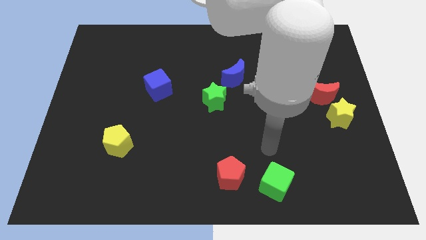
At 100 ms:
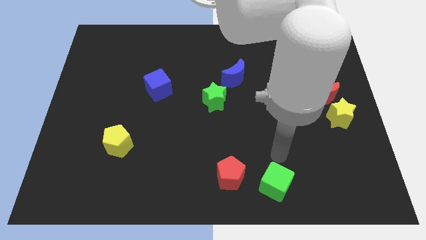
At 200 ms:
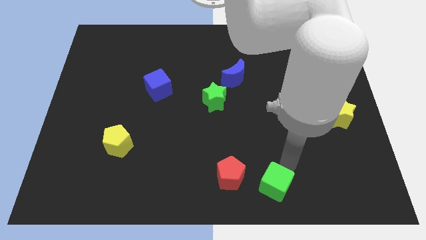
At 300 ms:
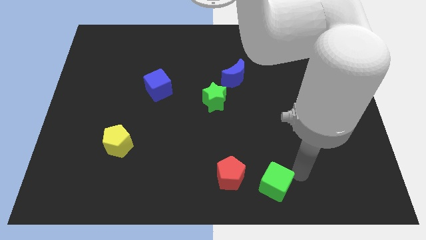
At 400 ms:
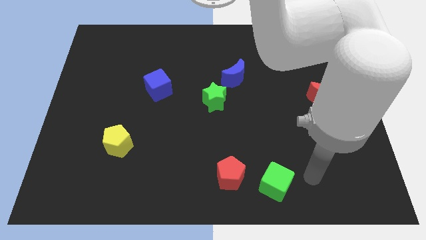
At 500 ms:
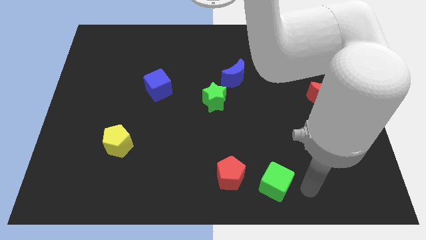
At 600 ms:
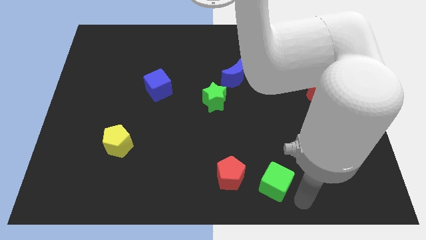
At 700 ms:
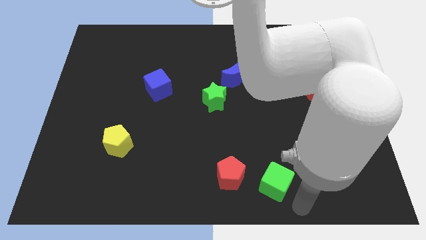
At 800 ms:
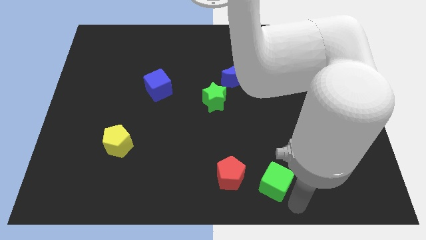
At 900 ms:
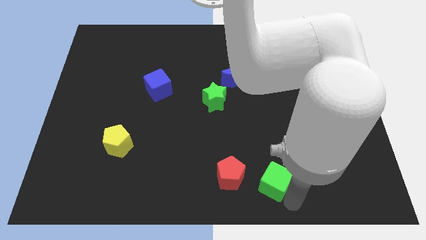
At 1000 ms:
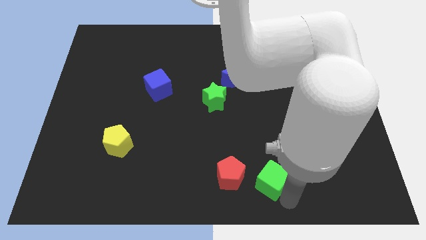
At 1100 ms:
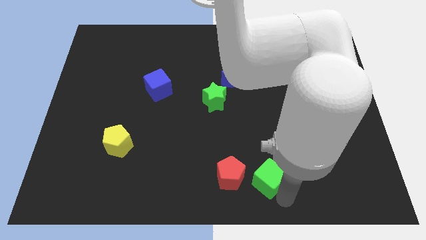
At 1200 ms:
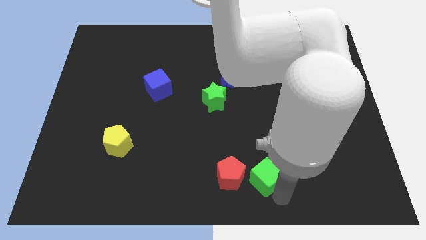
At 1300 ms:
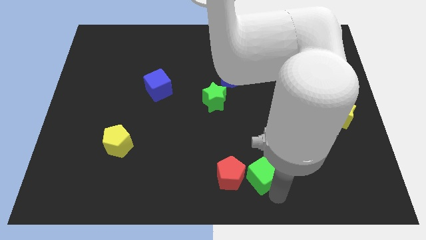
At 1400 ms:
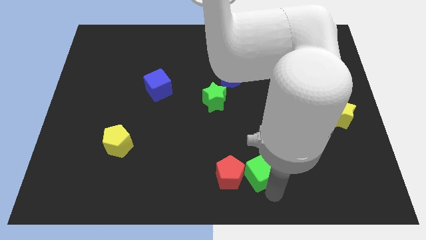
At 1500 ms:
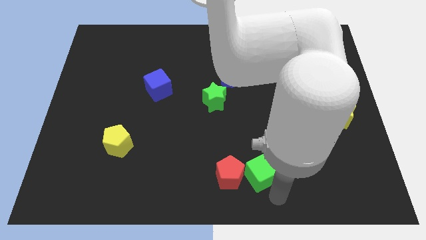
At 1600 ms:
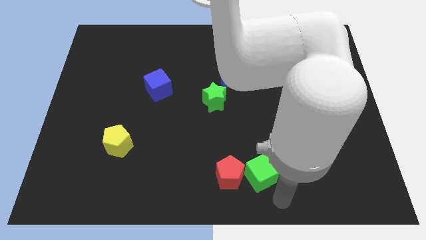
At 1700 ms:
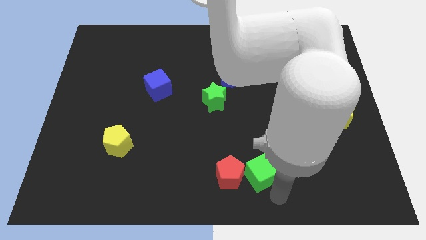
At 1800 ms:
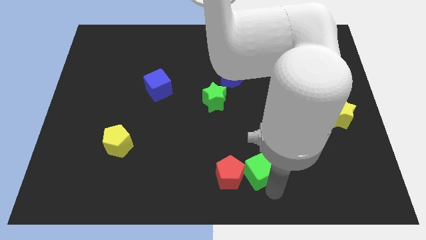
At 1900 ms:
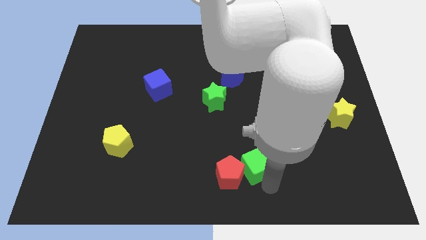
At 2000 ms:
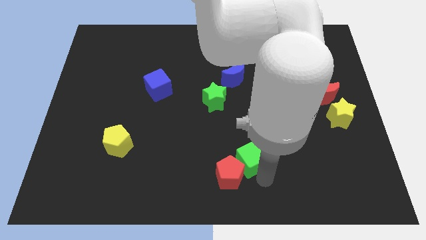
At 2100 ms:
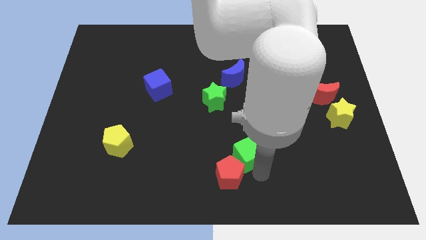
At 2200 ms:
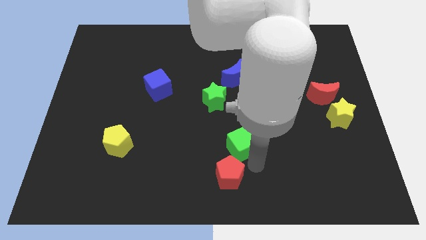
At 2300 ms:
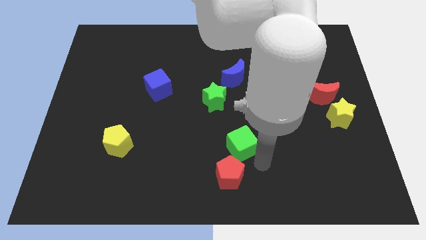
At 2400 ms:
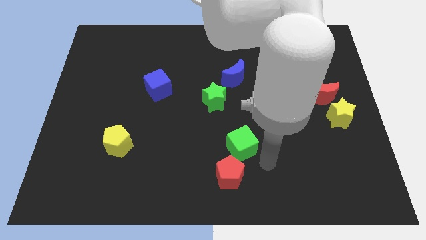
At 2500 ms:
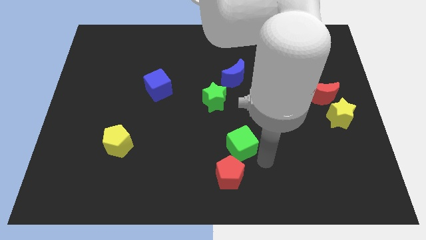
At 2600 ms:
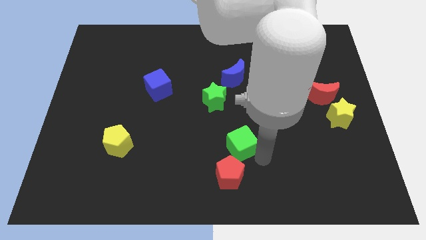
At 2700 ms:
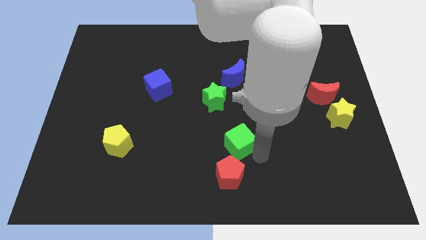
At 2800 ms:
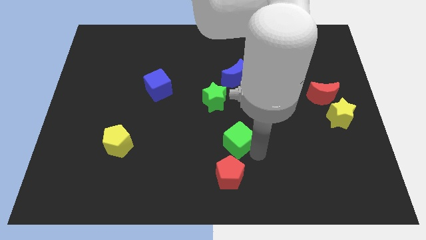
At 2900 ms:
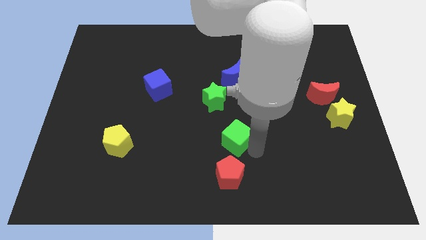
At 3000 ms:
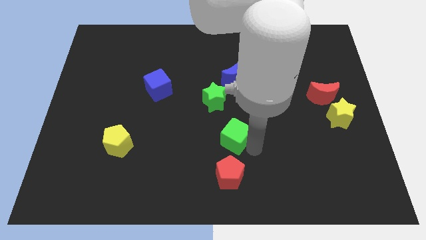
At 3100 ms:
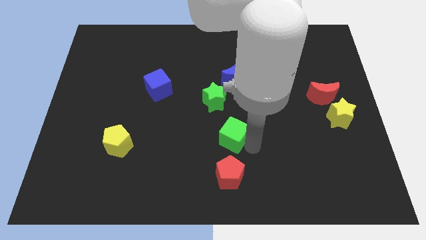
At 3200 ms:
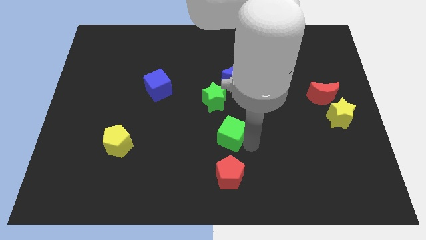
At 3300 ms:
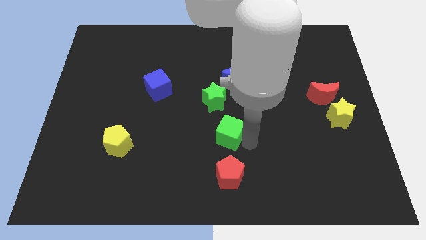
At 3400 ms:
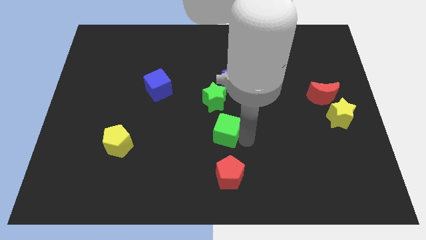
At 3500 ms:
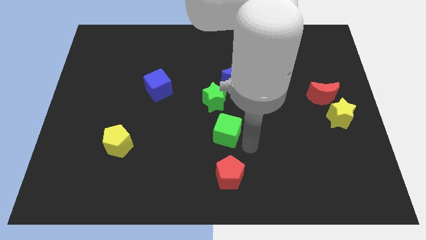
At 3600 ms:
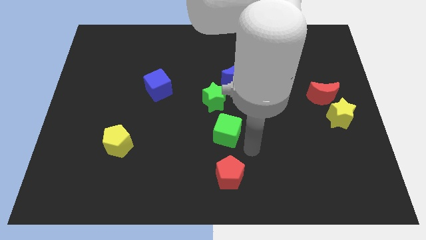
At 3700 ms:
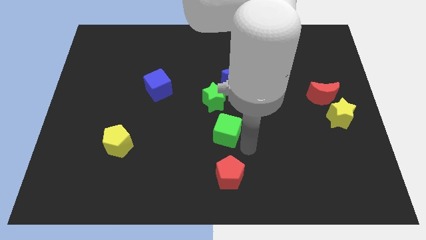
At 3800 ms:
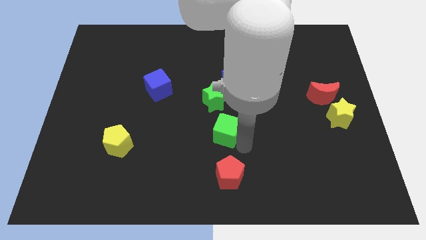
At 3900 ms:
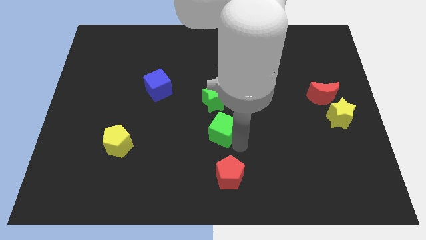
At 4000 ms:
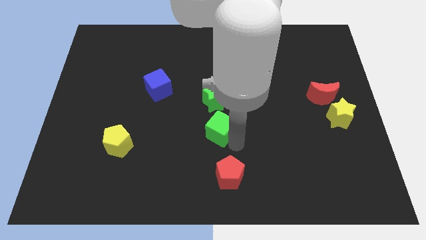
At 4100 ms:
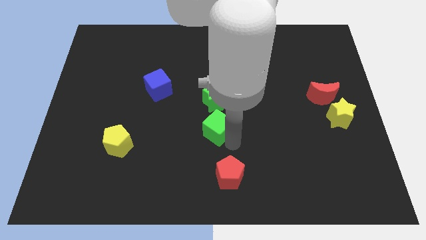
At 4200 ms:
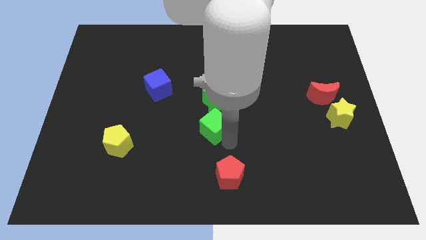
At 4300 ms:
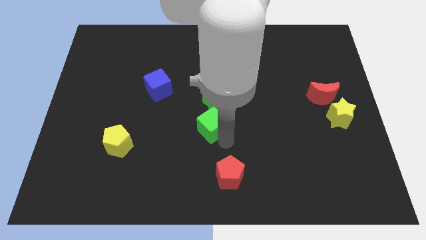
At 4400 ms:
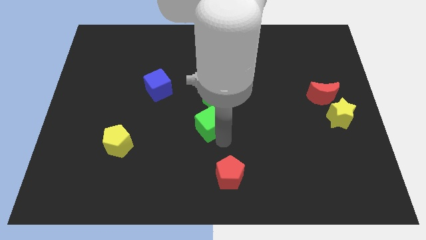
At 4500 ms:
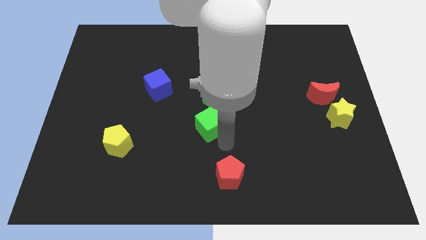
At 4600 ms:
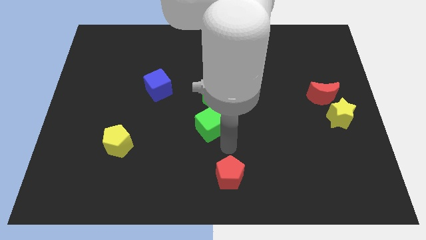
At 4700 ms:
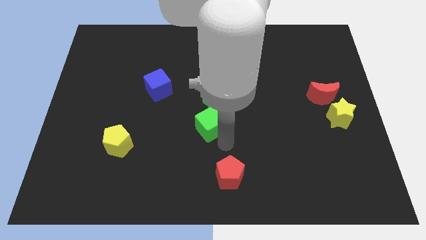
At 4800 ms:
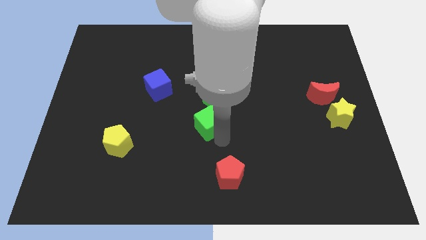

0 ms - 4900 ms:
slide the green cube up and then left

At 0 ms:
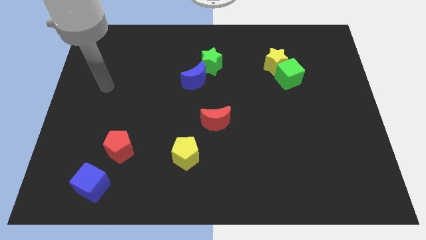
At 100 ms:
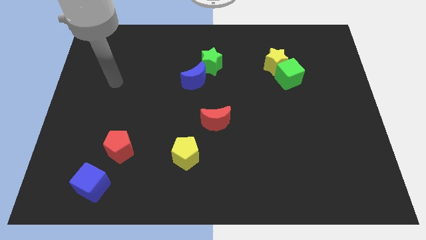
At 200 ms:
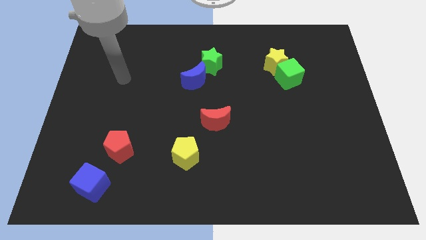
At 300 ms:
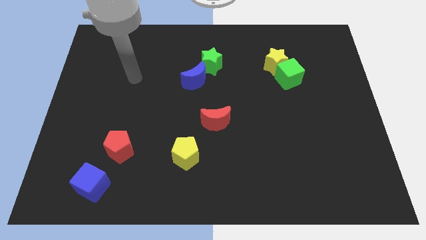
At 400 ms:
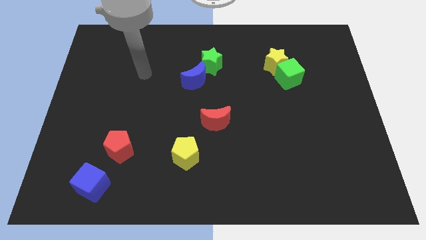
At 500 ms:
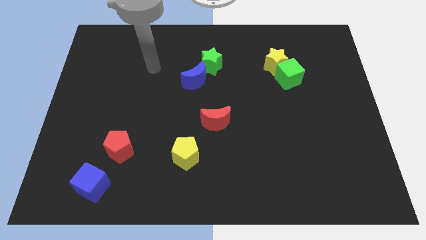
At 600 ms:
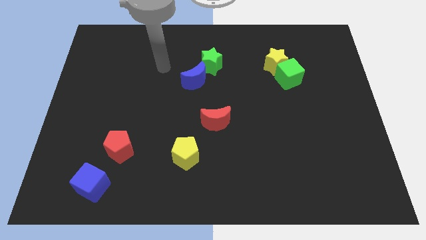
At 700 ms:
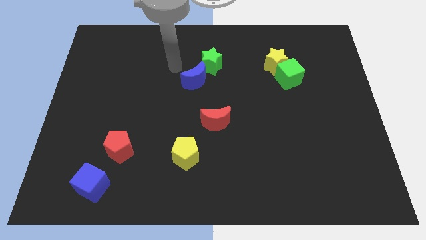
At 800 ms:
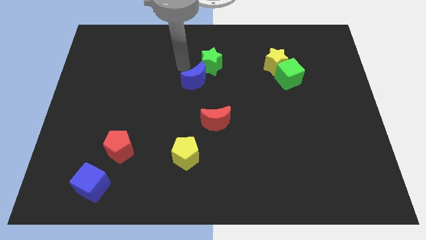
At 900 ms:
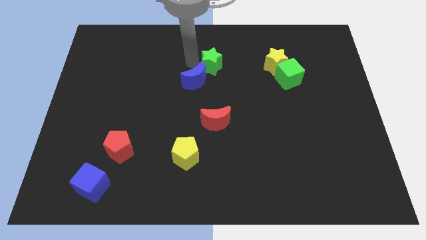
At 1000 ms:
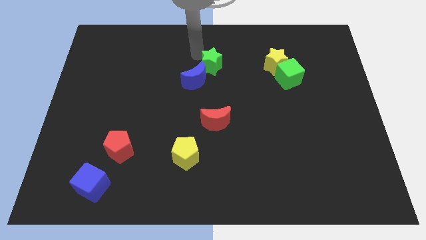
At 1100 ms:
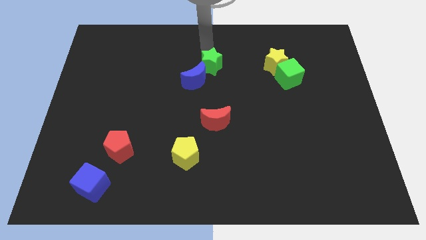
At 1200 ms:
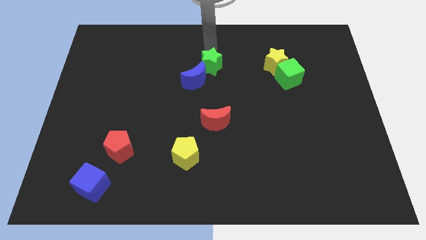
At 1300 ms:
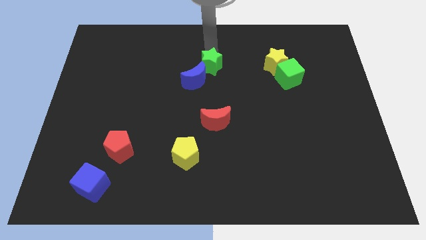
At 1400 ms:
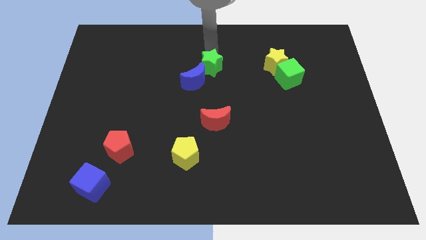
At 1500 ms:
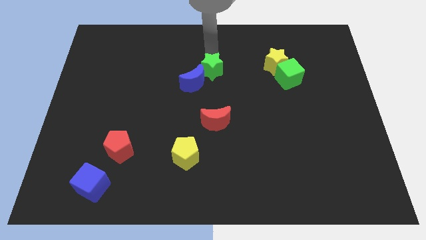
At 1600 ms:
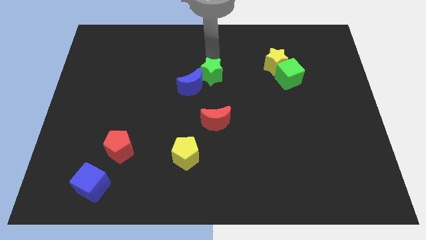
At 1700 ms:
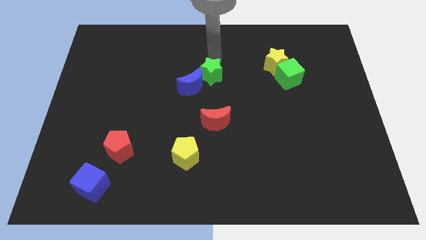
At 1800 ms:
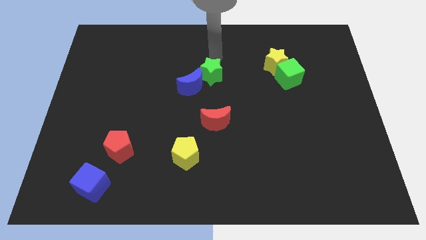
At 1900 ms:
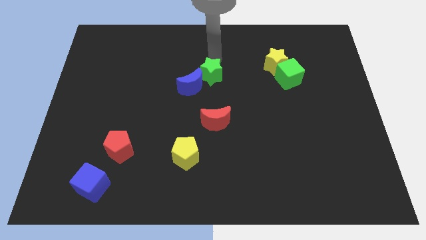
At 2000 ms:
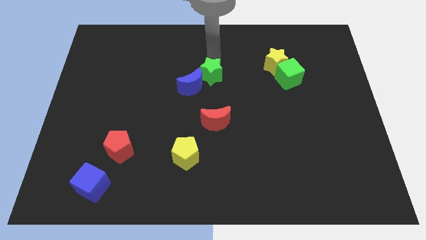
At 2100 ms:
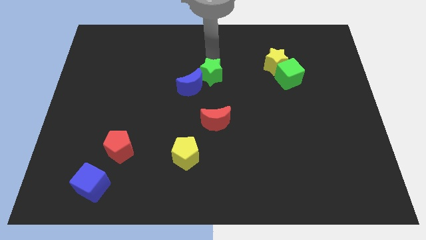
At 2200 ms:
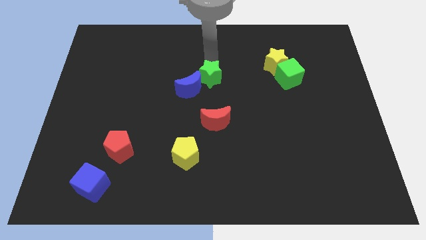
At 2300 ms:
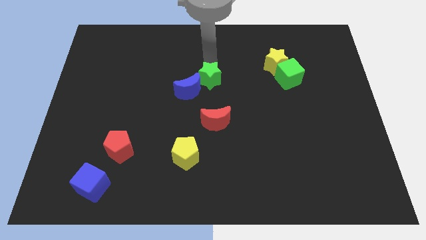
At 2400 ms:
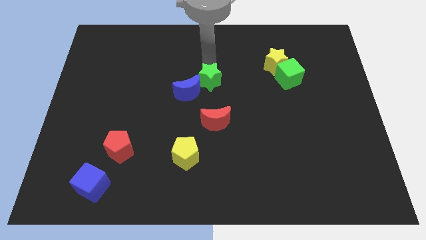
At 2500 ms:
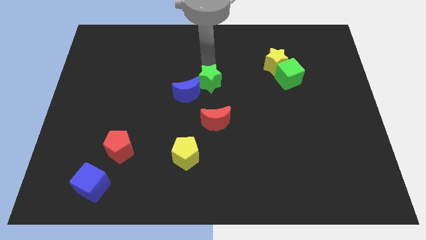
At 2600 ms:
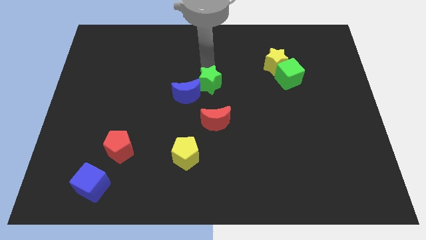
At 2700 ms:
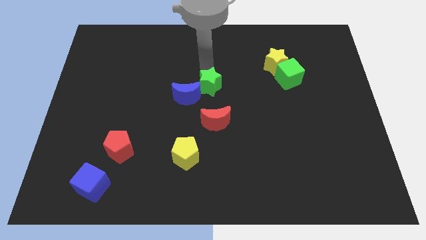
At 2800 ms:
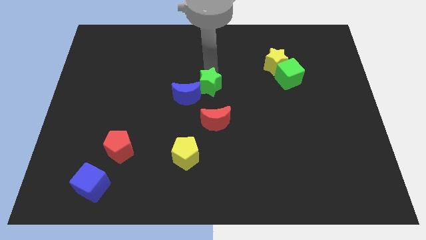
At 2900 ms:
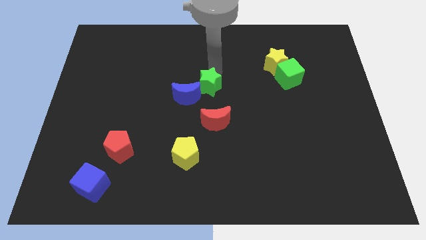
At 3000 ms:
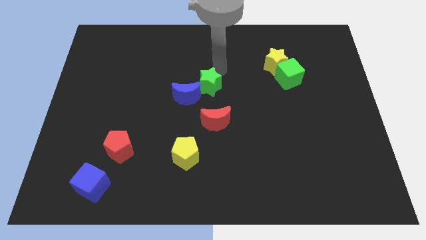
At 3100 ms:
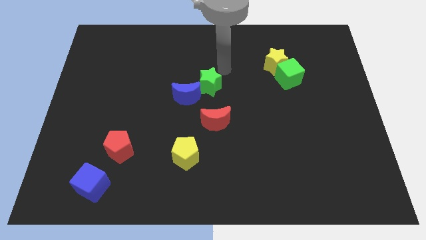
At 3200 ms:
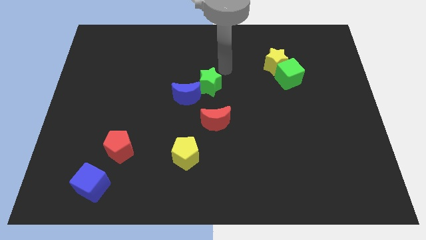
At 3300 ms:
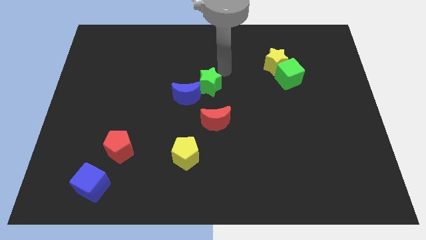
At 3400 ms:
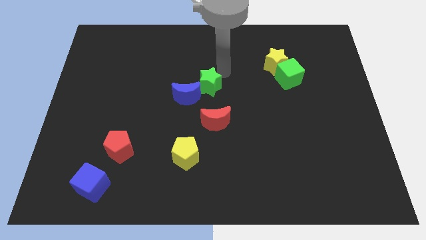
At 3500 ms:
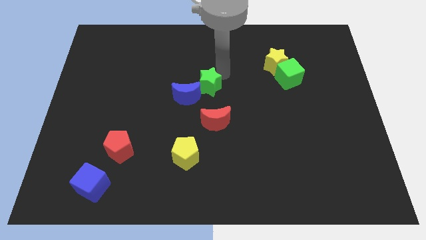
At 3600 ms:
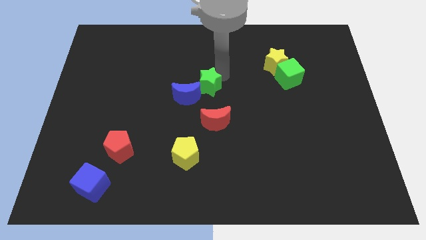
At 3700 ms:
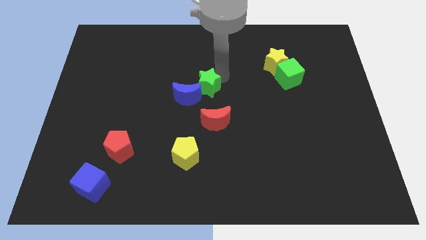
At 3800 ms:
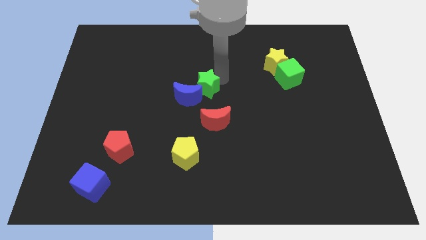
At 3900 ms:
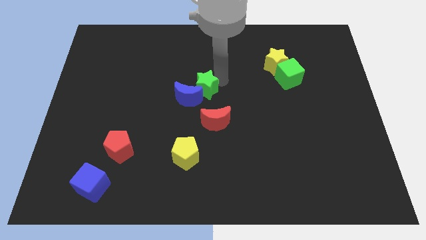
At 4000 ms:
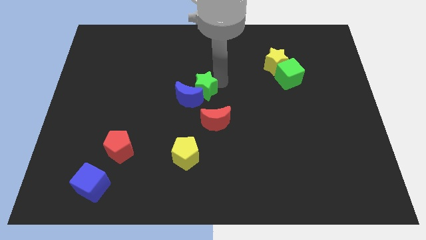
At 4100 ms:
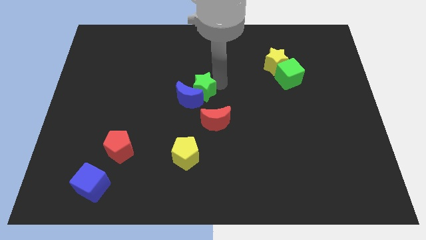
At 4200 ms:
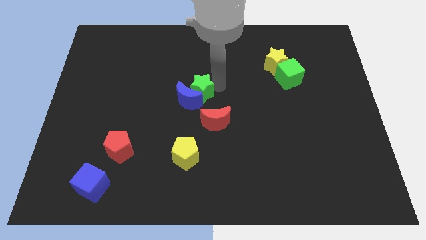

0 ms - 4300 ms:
push the green star slightly downwards and then to the left
